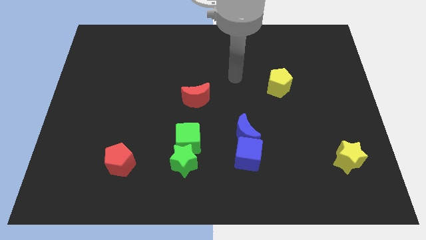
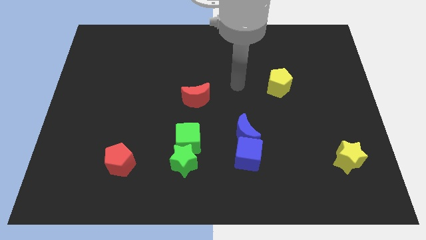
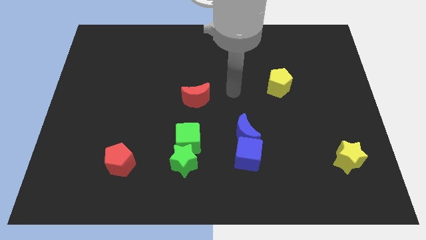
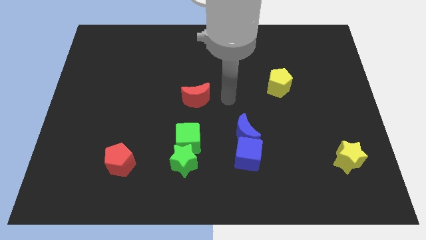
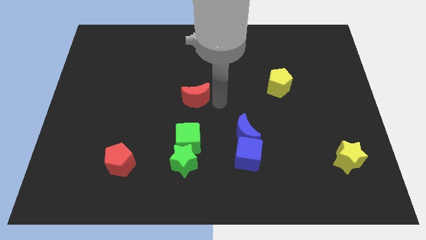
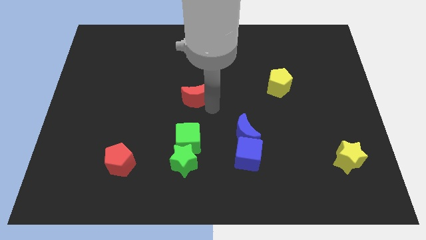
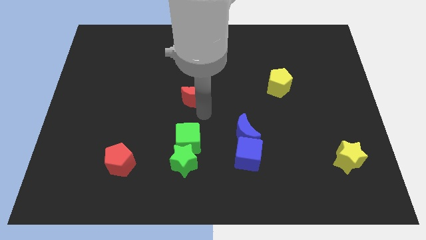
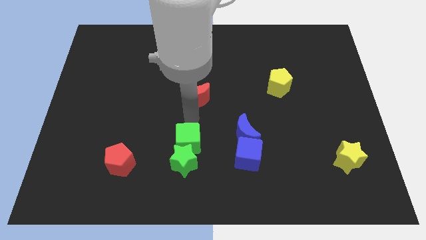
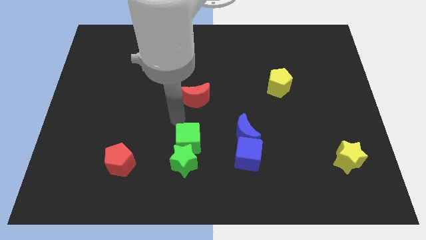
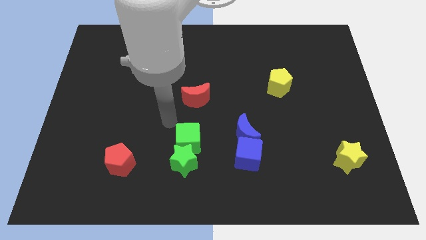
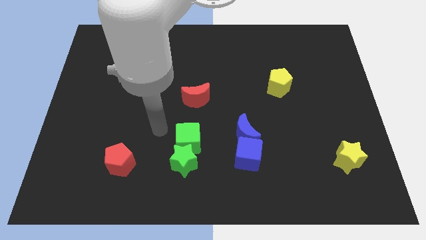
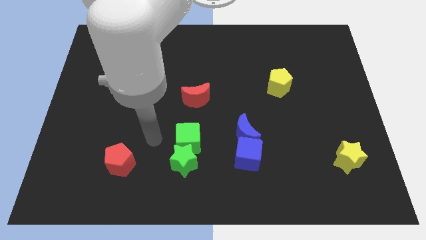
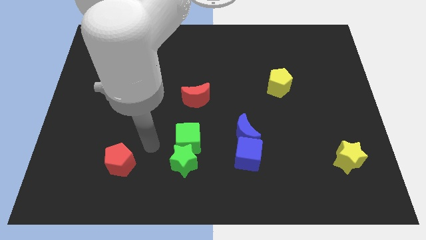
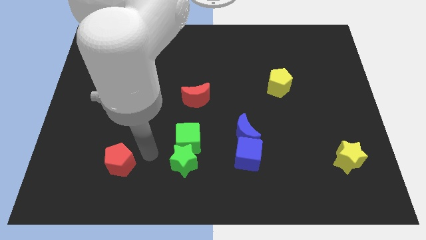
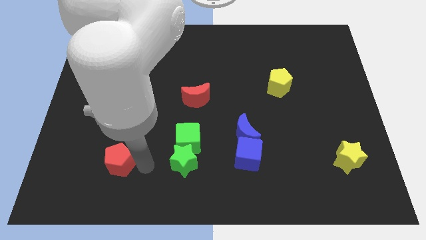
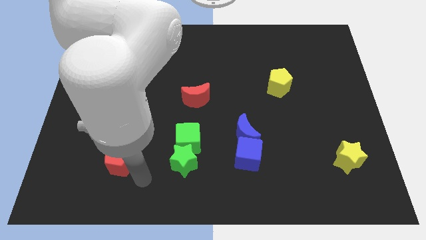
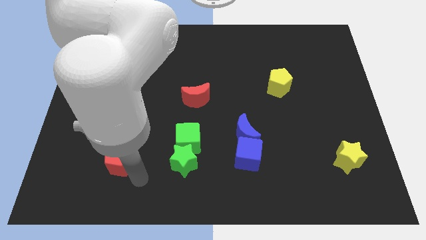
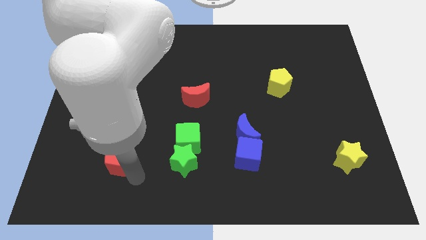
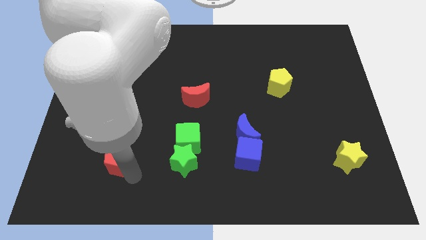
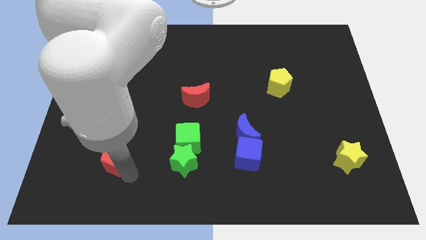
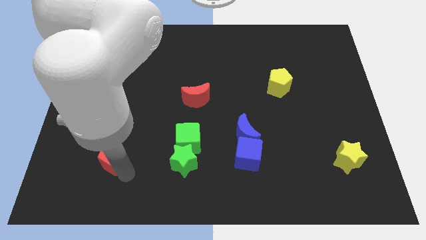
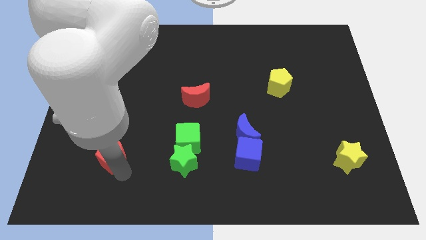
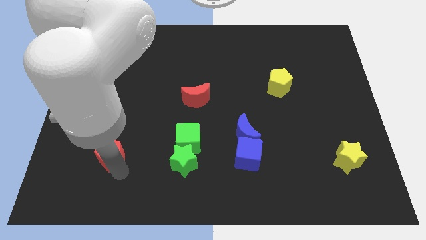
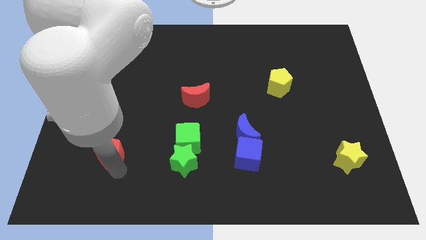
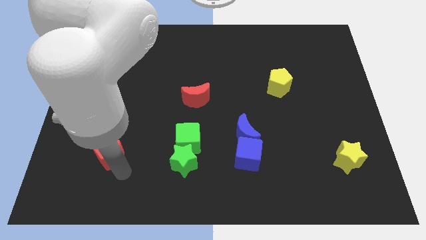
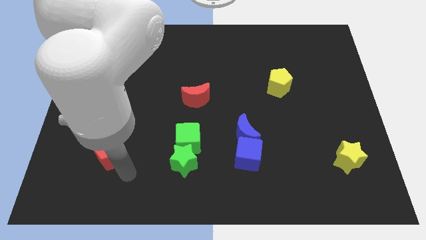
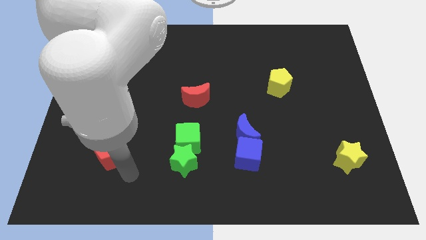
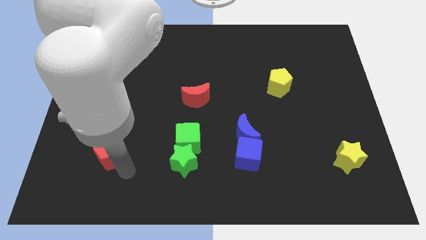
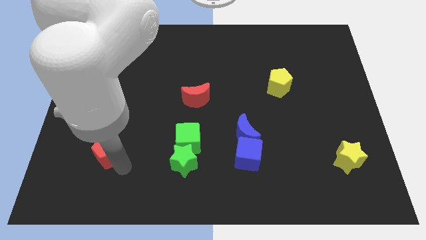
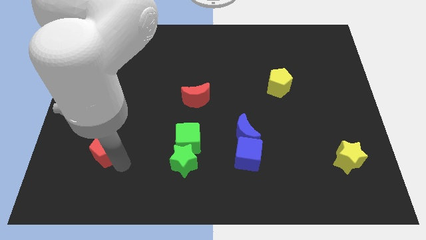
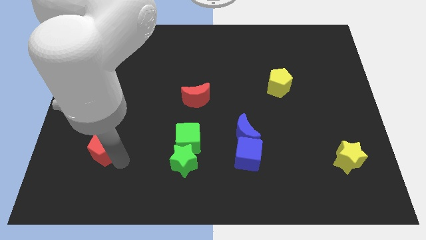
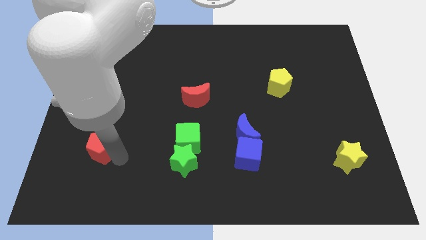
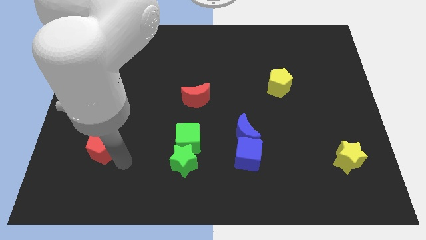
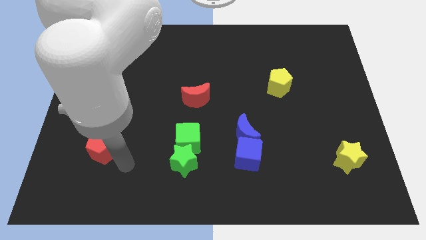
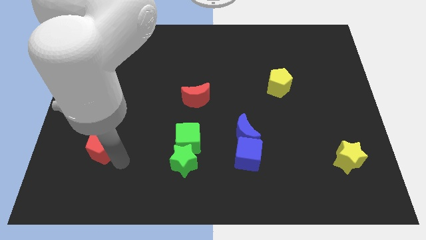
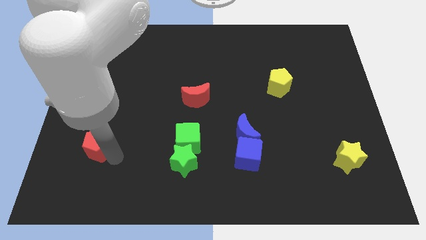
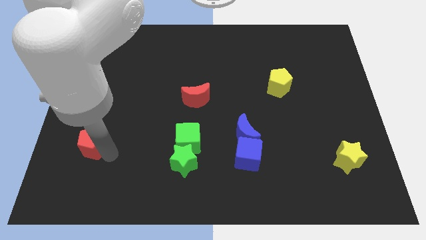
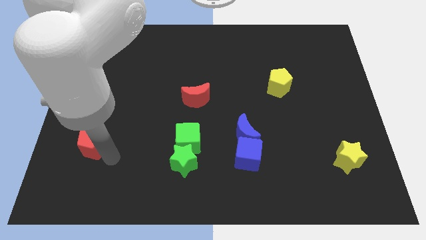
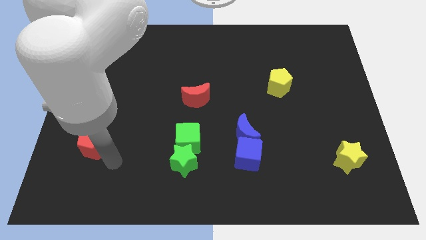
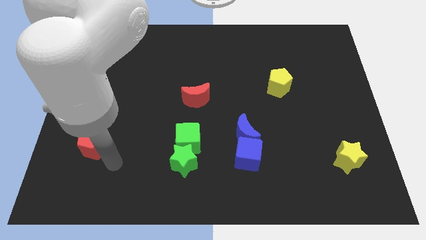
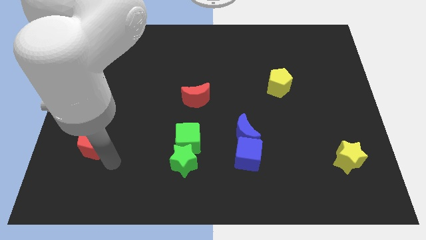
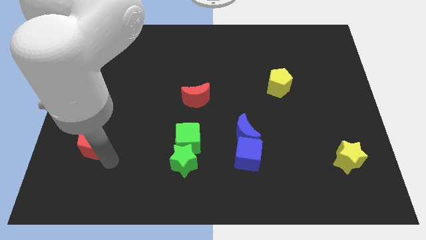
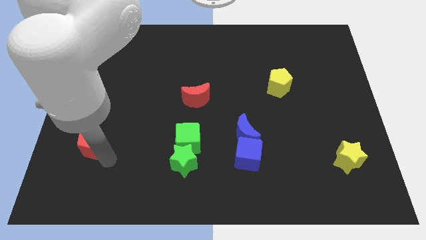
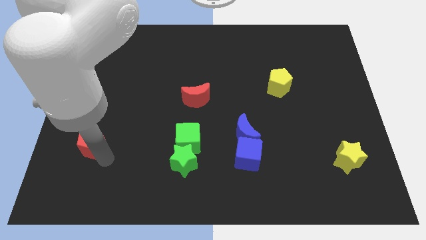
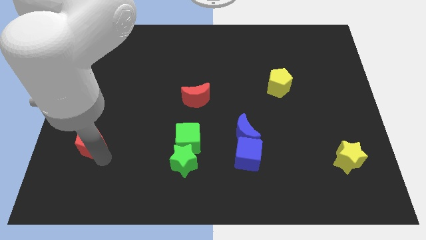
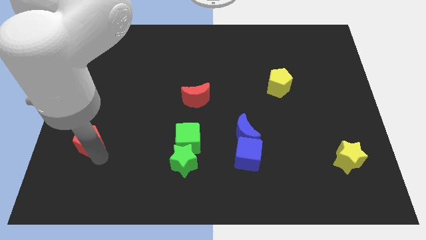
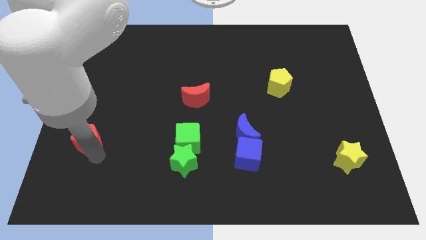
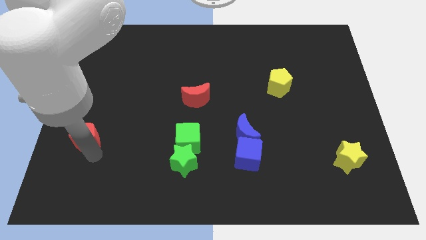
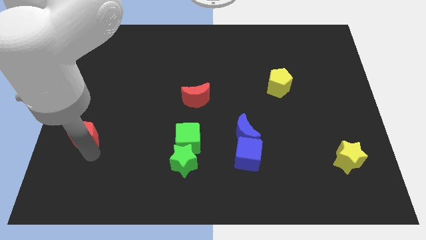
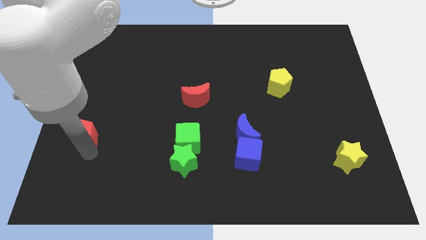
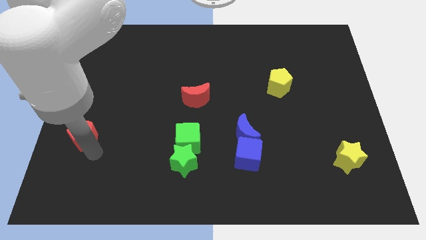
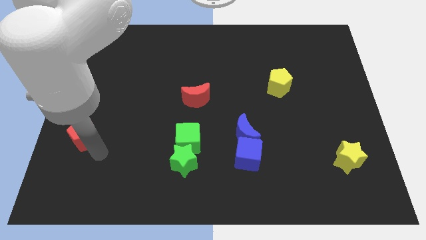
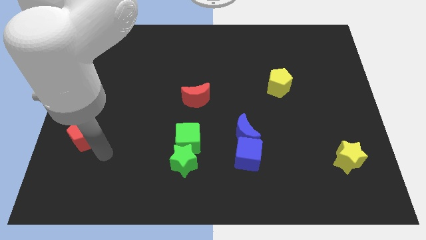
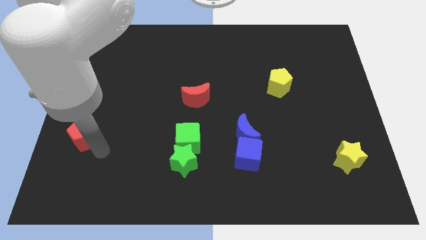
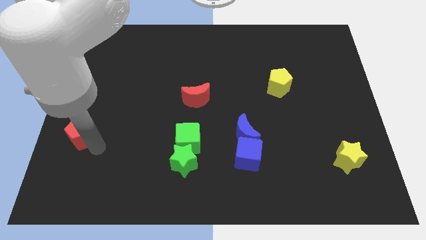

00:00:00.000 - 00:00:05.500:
push the red pentagon to the left side of the board
